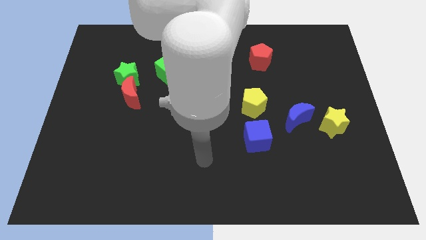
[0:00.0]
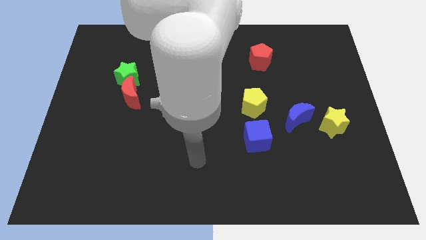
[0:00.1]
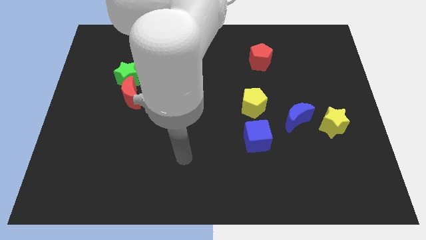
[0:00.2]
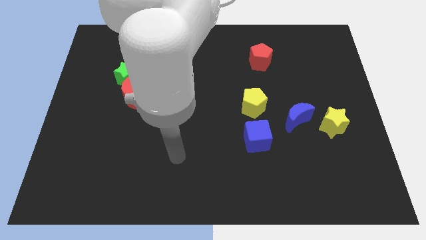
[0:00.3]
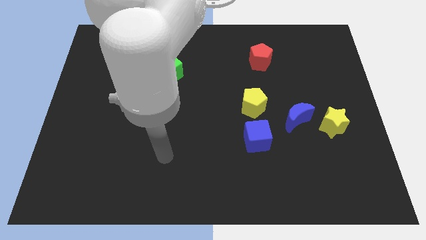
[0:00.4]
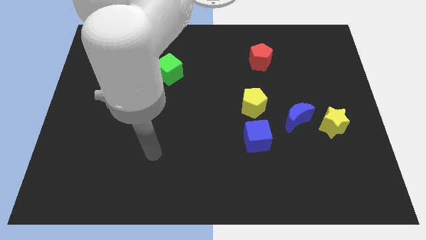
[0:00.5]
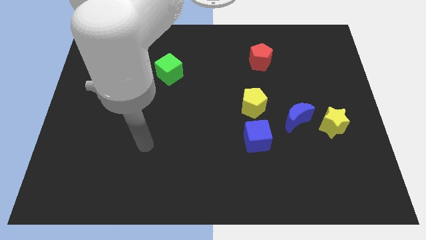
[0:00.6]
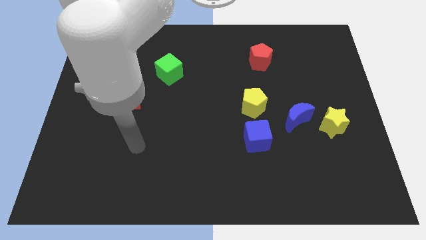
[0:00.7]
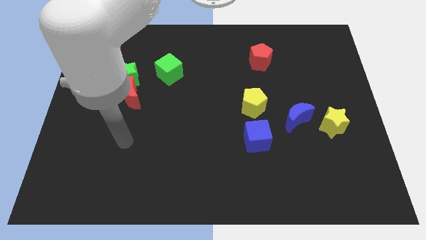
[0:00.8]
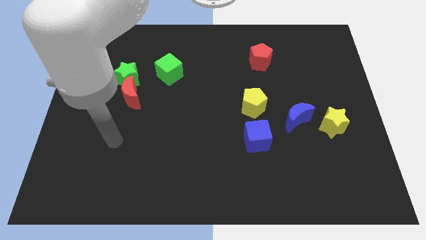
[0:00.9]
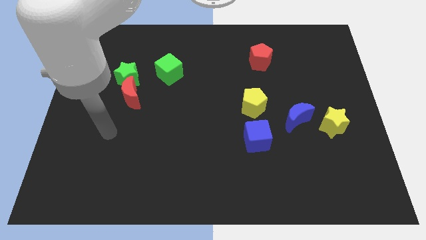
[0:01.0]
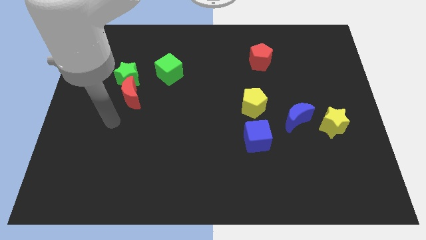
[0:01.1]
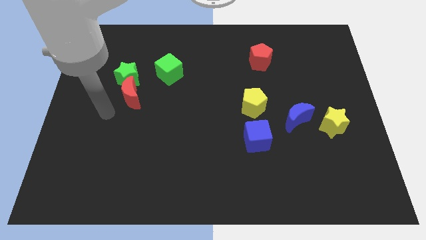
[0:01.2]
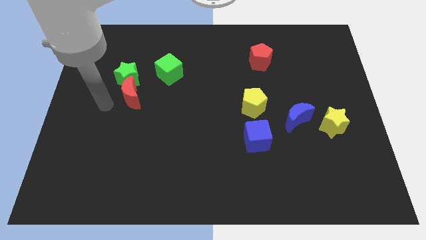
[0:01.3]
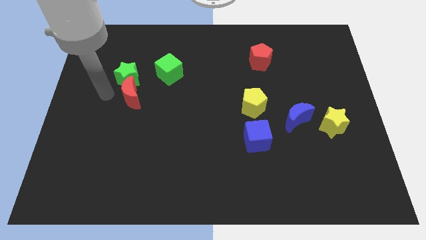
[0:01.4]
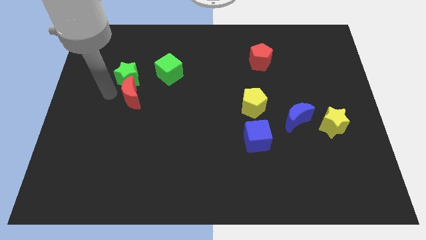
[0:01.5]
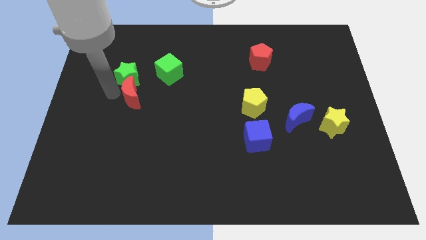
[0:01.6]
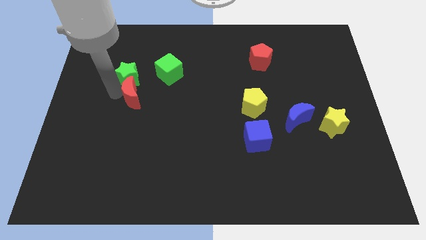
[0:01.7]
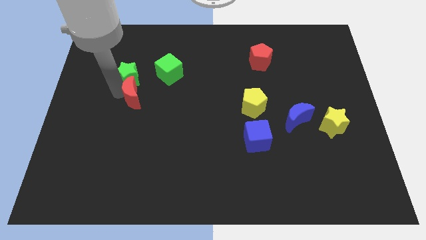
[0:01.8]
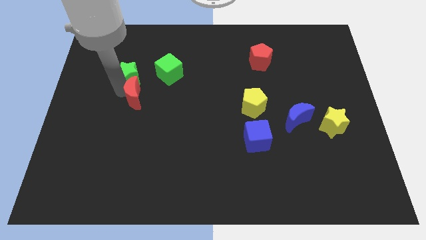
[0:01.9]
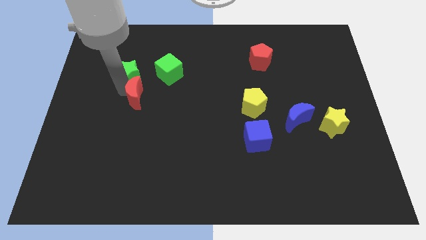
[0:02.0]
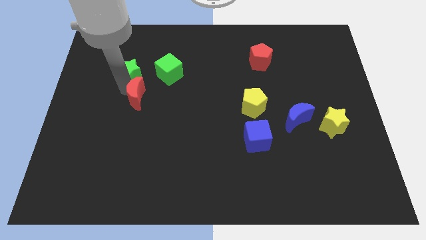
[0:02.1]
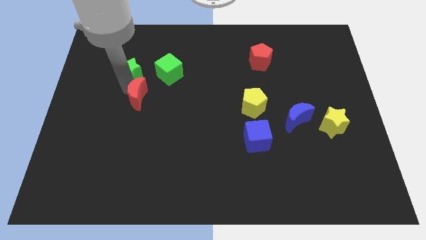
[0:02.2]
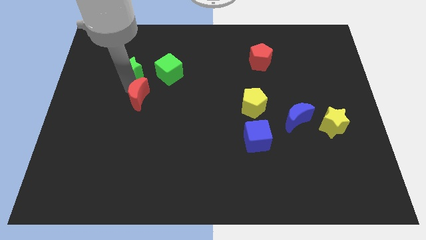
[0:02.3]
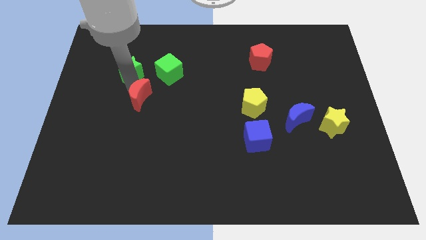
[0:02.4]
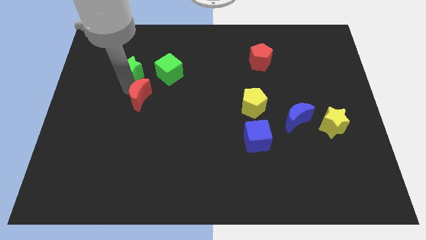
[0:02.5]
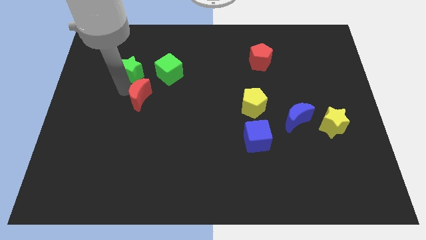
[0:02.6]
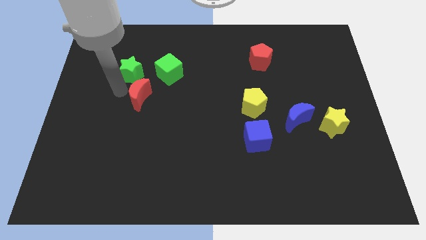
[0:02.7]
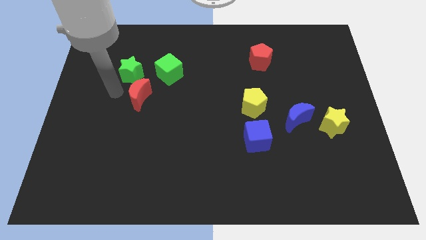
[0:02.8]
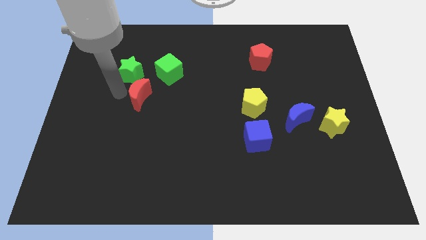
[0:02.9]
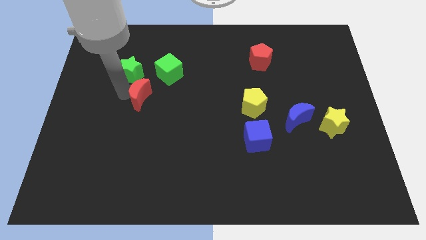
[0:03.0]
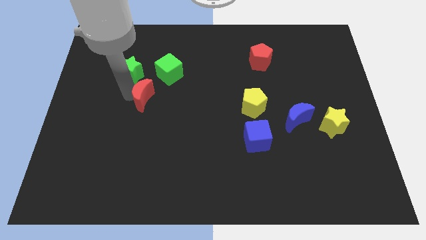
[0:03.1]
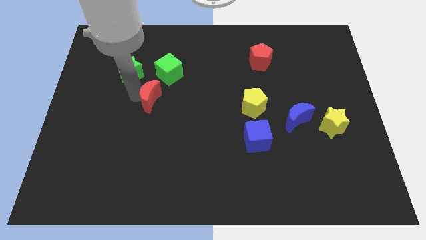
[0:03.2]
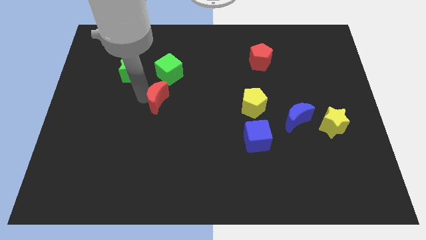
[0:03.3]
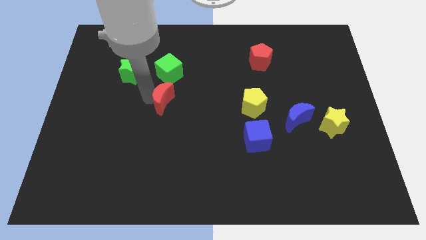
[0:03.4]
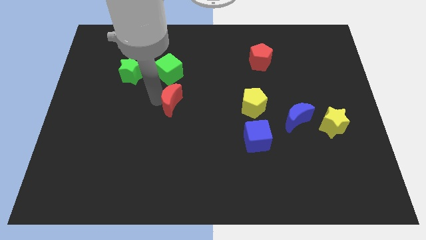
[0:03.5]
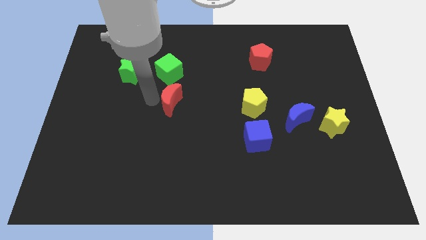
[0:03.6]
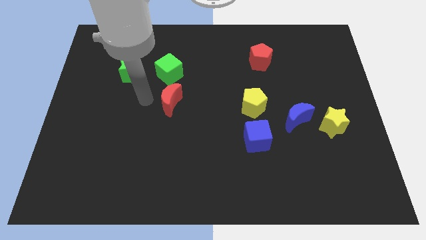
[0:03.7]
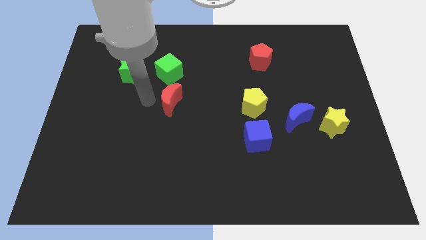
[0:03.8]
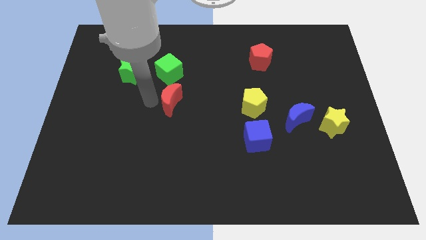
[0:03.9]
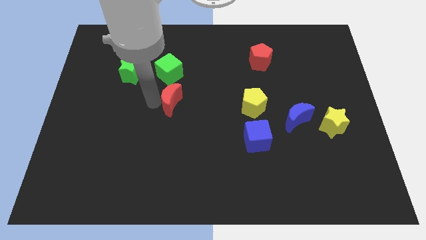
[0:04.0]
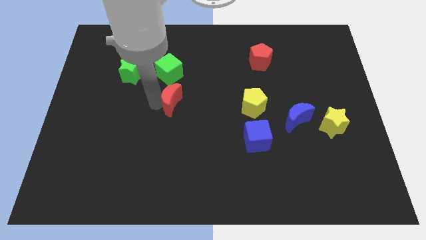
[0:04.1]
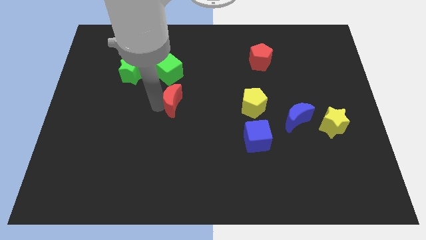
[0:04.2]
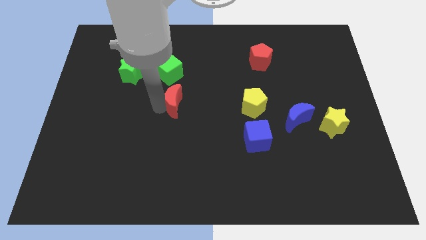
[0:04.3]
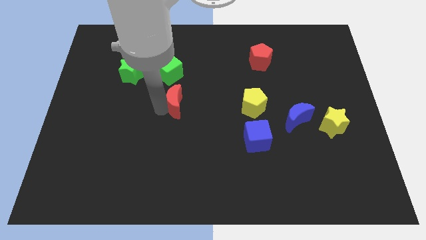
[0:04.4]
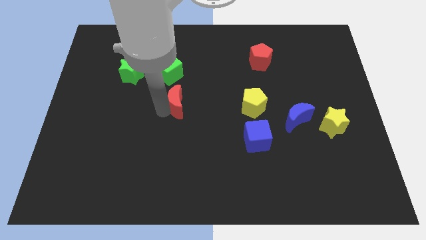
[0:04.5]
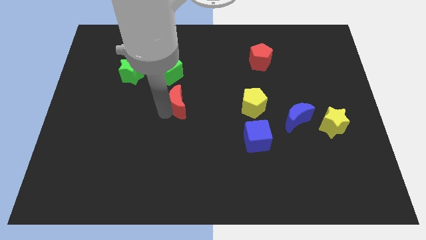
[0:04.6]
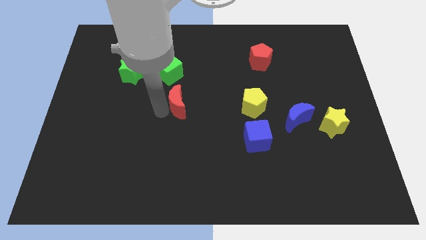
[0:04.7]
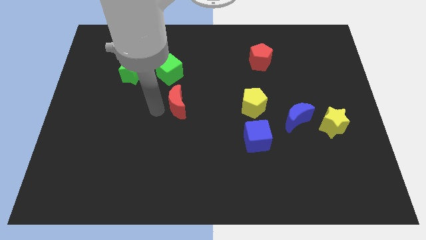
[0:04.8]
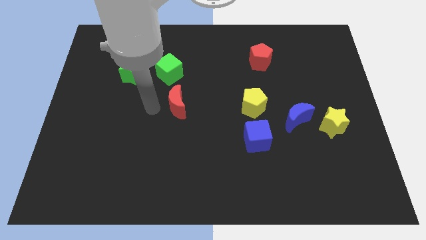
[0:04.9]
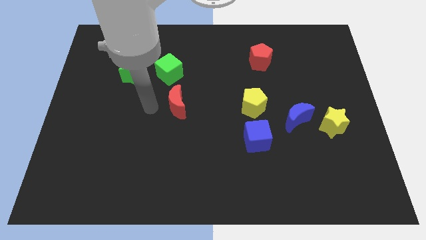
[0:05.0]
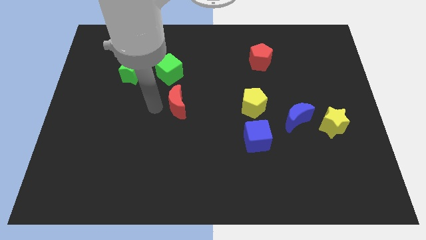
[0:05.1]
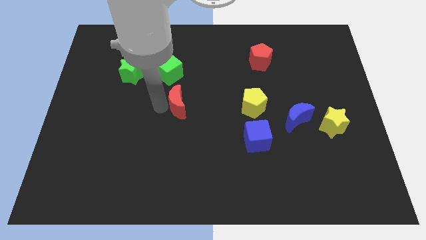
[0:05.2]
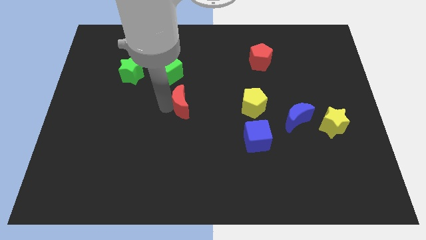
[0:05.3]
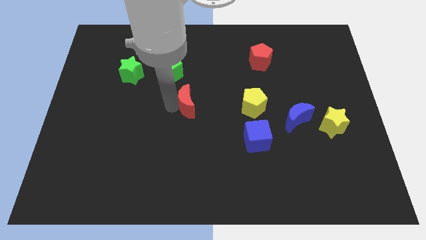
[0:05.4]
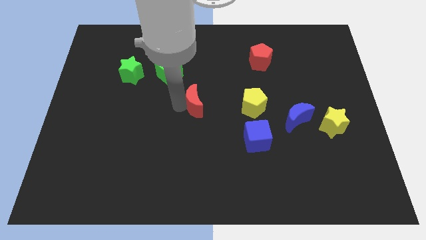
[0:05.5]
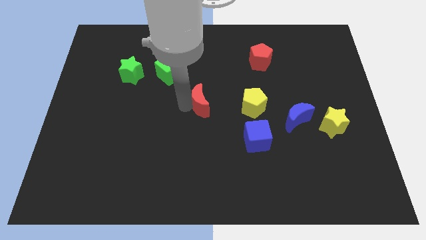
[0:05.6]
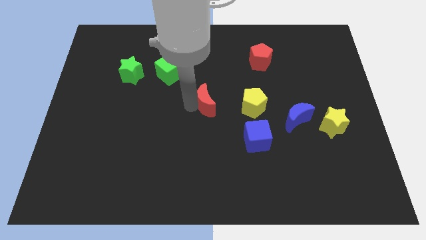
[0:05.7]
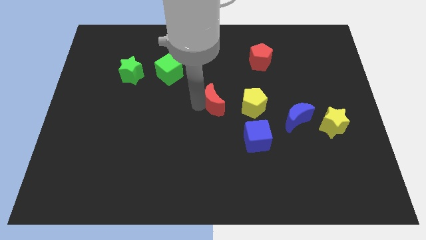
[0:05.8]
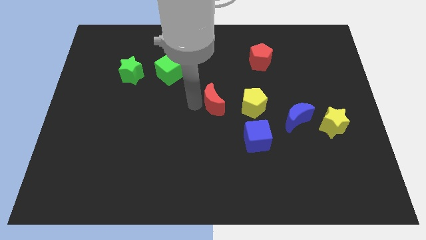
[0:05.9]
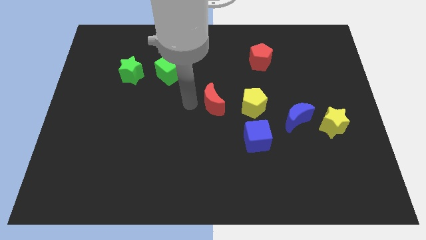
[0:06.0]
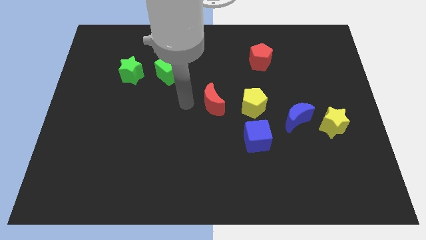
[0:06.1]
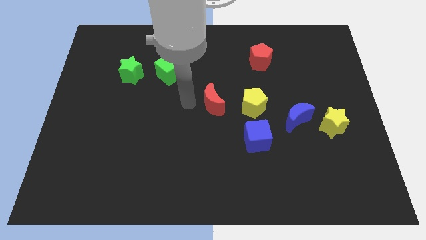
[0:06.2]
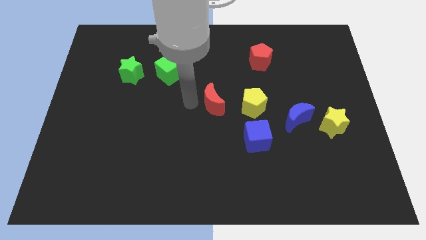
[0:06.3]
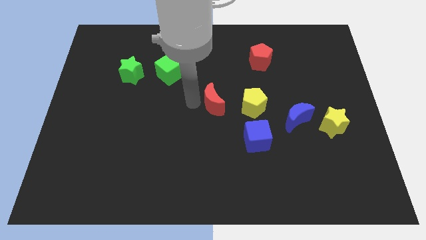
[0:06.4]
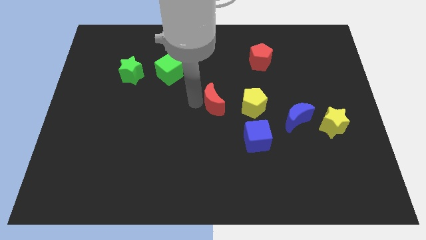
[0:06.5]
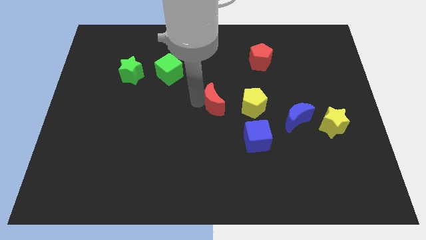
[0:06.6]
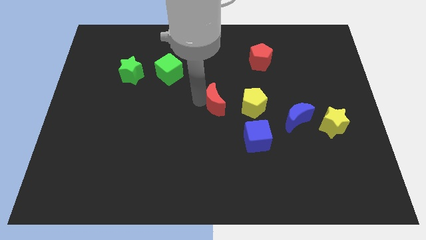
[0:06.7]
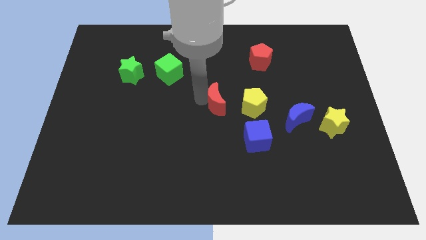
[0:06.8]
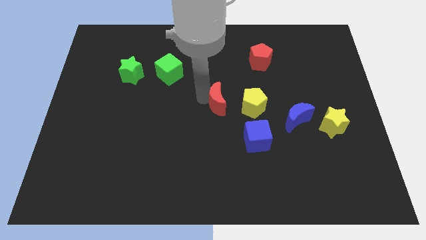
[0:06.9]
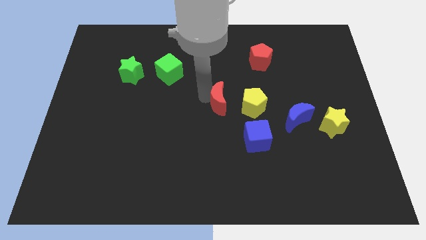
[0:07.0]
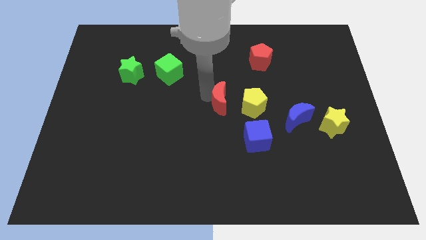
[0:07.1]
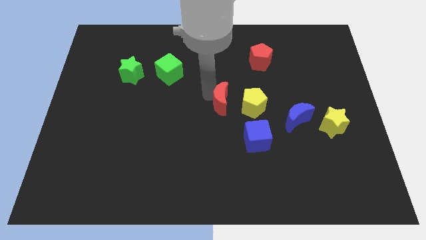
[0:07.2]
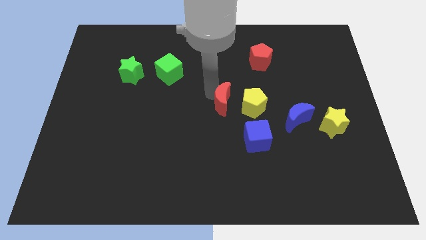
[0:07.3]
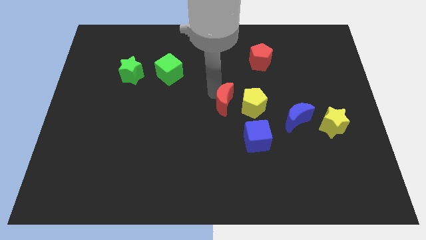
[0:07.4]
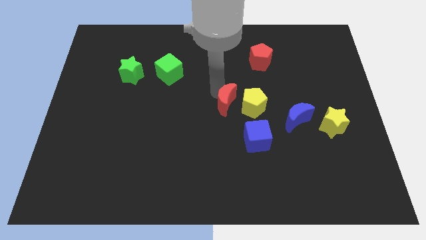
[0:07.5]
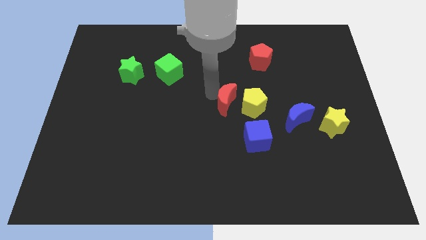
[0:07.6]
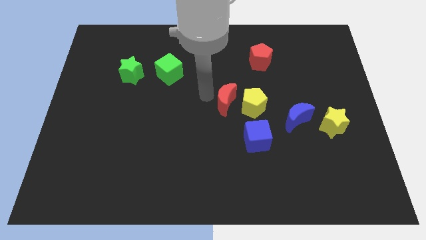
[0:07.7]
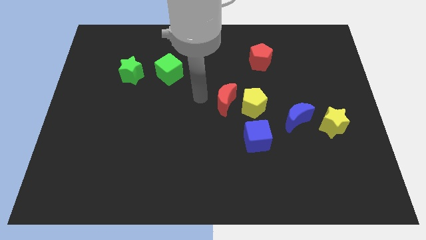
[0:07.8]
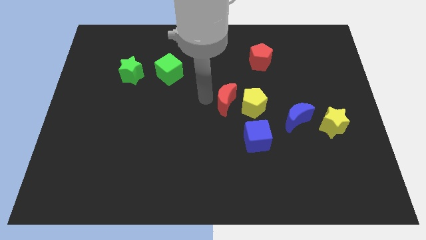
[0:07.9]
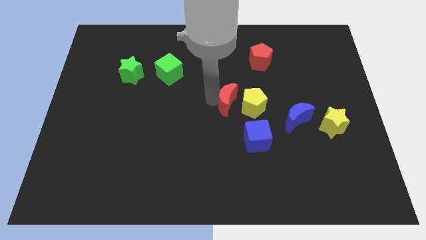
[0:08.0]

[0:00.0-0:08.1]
slide the red moon next to the yellow pentagon
